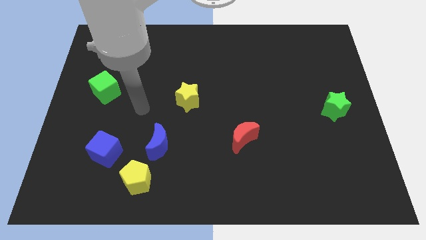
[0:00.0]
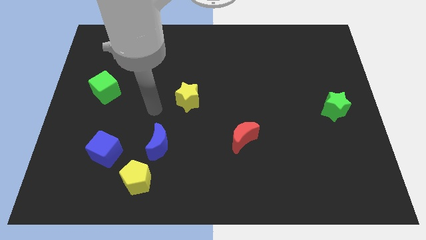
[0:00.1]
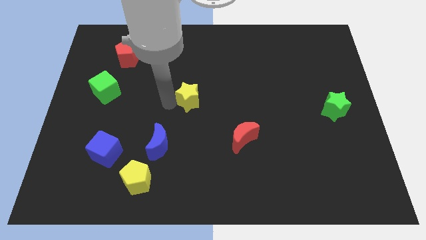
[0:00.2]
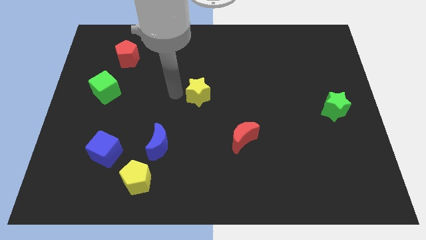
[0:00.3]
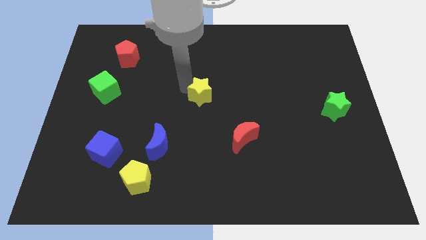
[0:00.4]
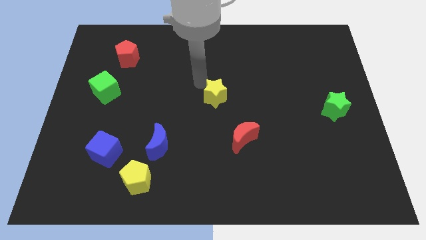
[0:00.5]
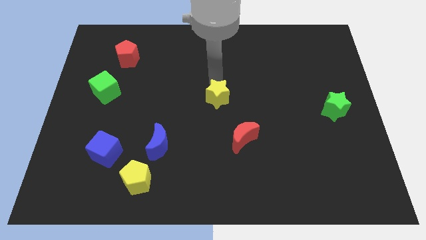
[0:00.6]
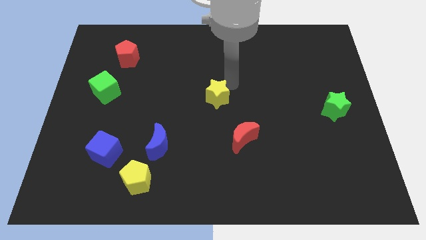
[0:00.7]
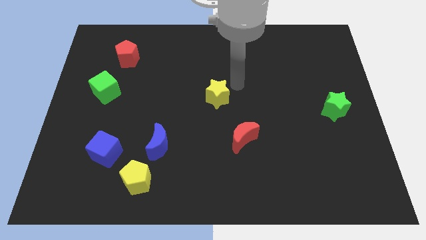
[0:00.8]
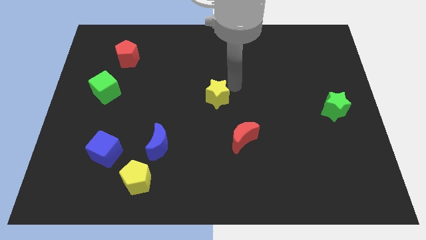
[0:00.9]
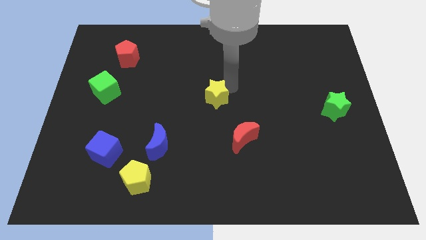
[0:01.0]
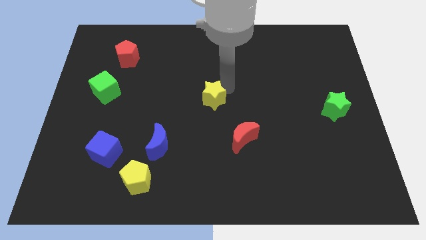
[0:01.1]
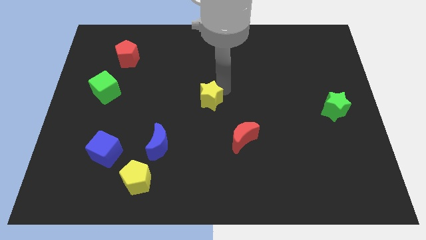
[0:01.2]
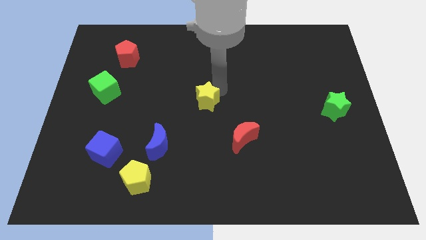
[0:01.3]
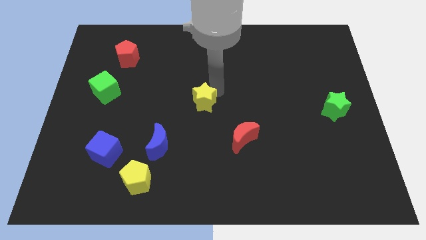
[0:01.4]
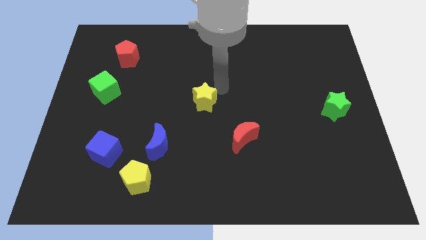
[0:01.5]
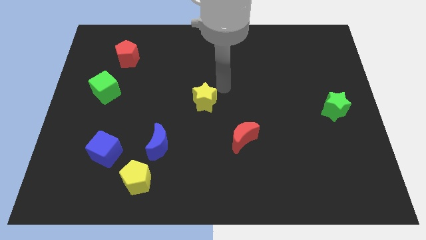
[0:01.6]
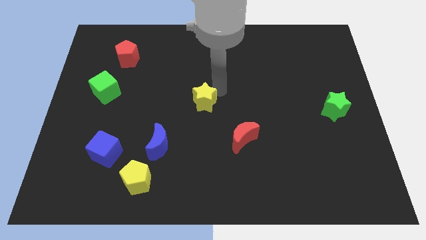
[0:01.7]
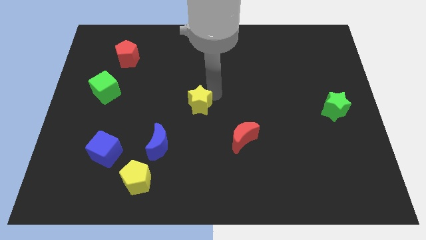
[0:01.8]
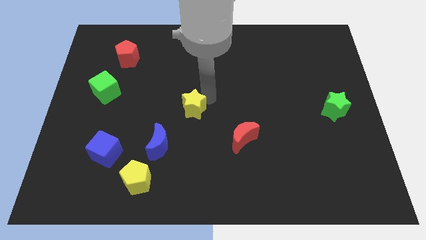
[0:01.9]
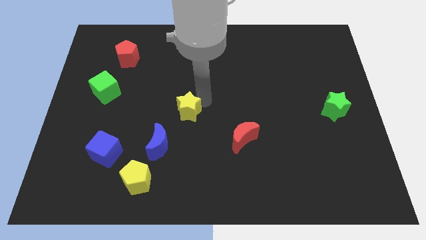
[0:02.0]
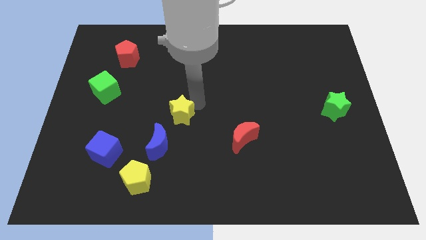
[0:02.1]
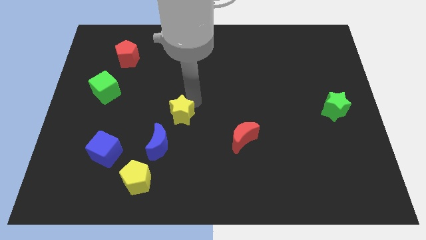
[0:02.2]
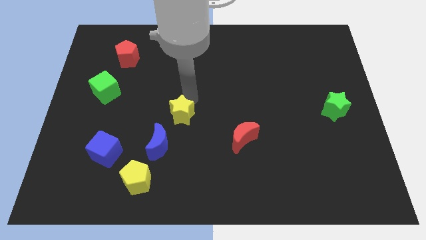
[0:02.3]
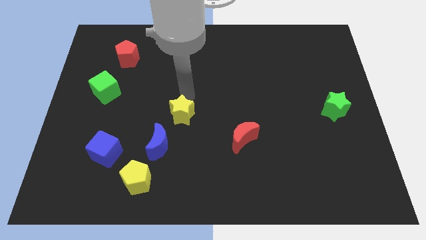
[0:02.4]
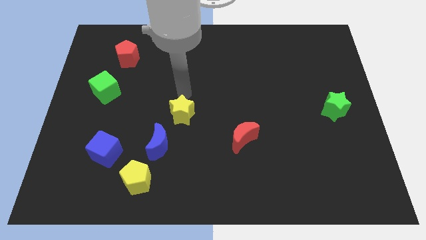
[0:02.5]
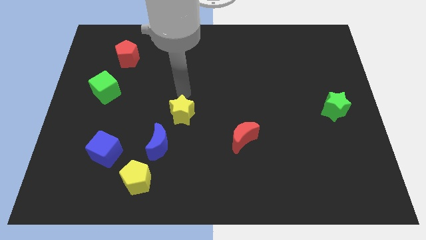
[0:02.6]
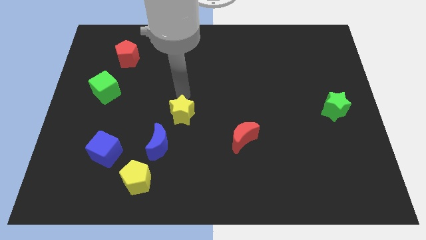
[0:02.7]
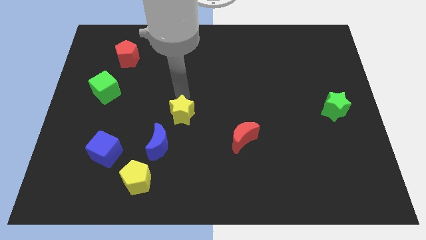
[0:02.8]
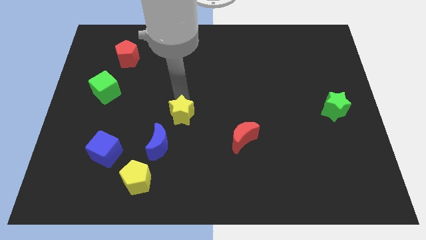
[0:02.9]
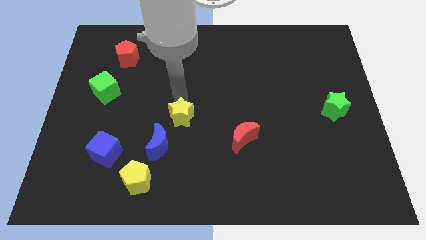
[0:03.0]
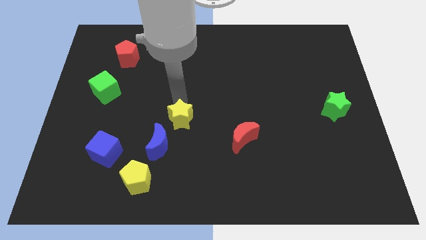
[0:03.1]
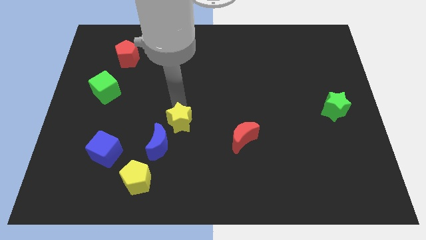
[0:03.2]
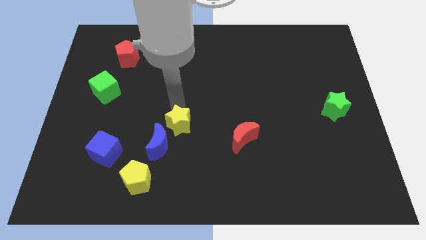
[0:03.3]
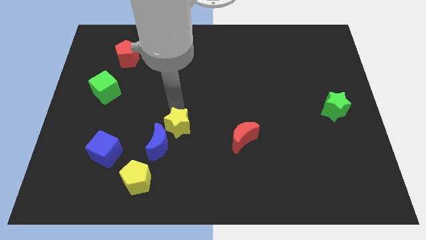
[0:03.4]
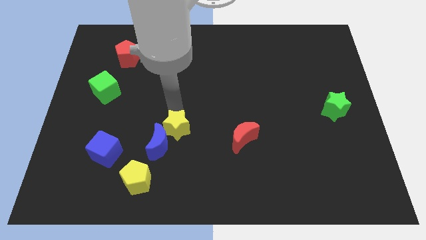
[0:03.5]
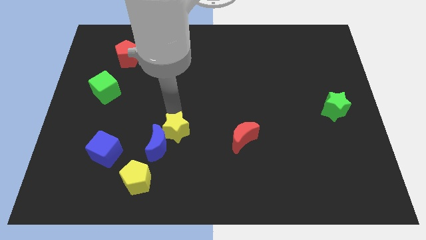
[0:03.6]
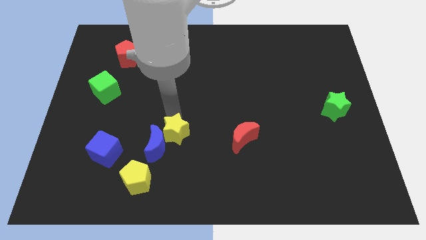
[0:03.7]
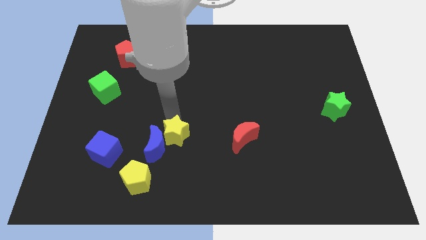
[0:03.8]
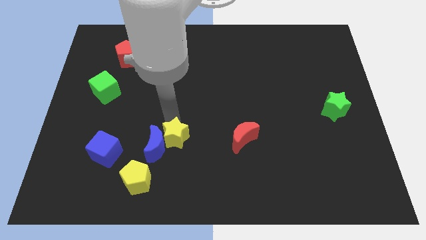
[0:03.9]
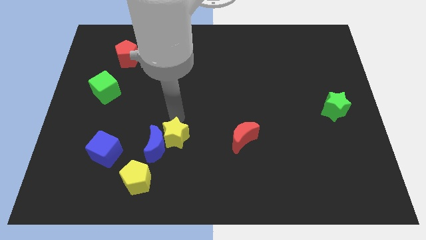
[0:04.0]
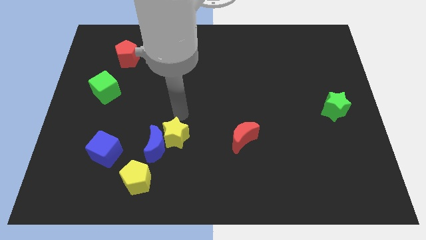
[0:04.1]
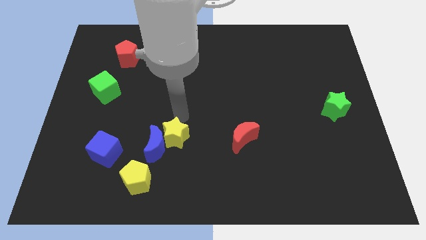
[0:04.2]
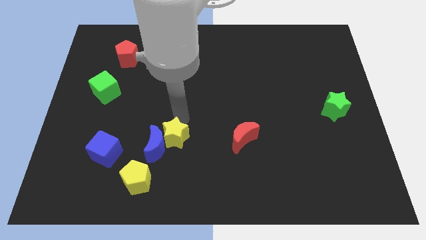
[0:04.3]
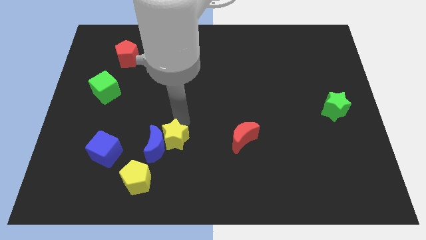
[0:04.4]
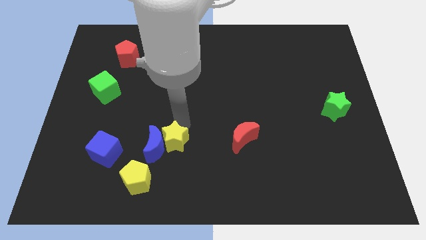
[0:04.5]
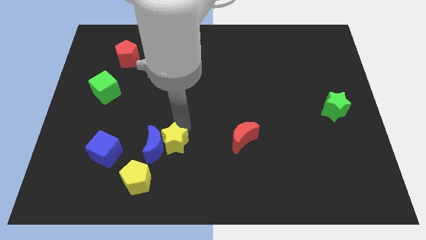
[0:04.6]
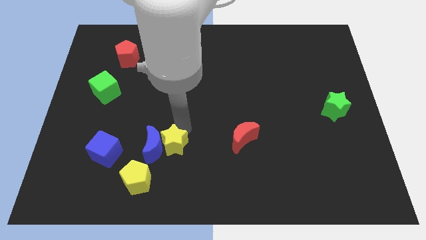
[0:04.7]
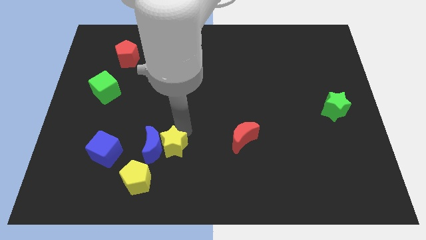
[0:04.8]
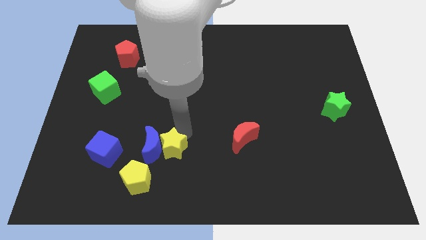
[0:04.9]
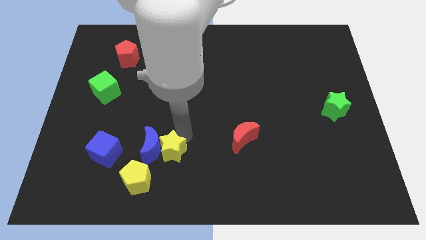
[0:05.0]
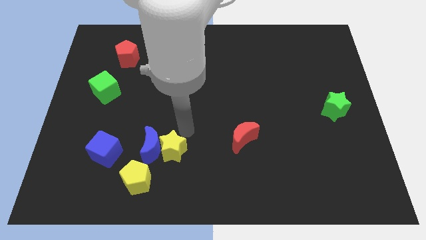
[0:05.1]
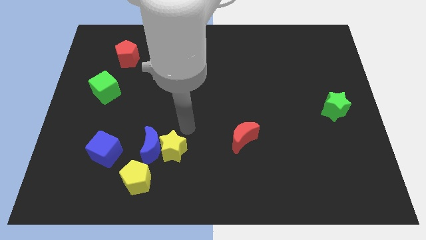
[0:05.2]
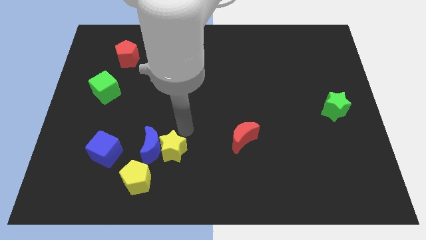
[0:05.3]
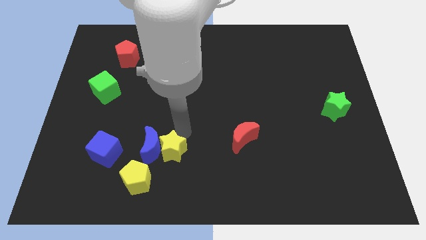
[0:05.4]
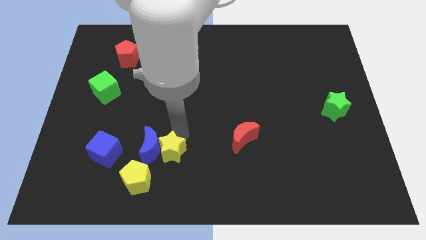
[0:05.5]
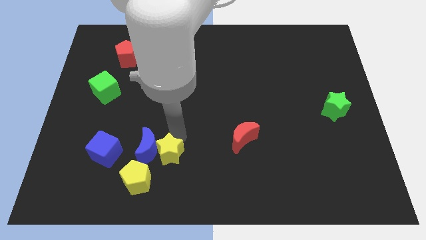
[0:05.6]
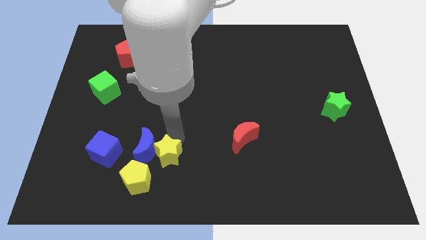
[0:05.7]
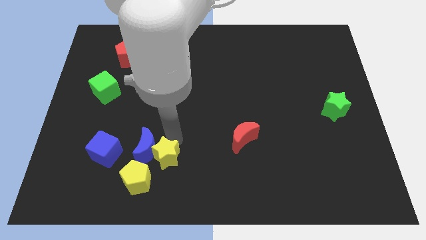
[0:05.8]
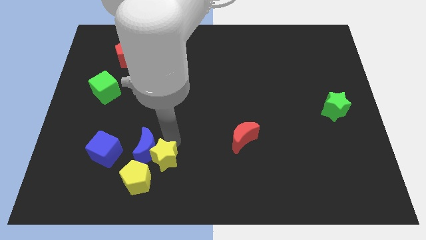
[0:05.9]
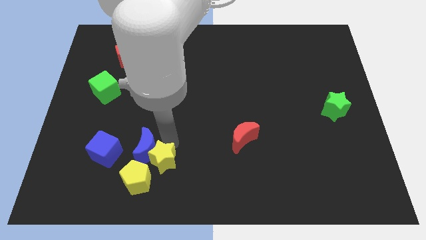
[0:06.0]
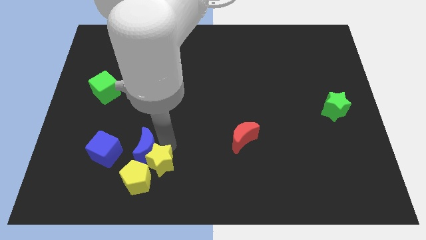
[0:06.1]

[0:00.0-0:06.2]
put the yellow star to the yellow pentagon

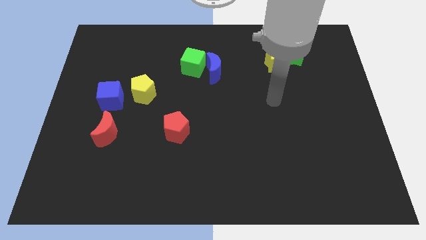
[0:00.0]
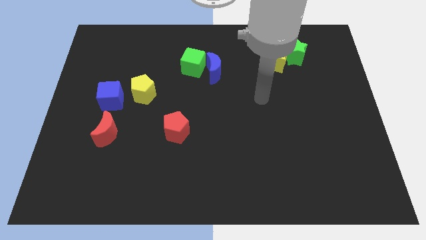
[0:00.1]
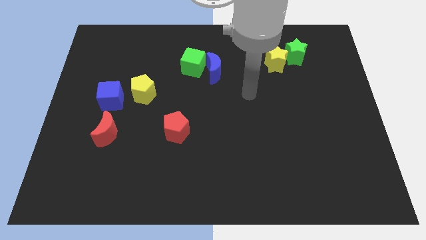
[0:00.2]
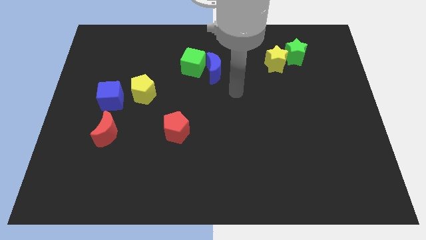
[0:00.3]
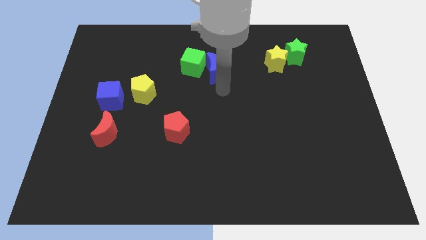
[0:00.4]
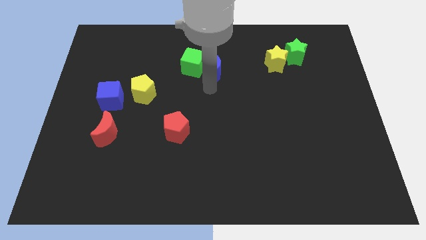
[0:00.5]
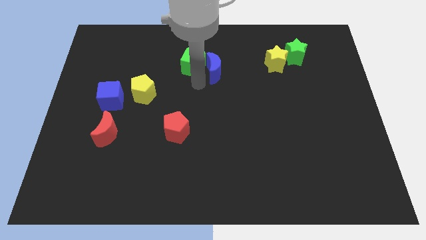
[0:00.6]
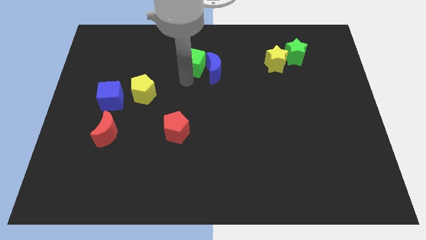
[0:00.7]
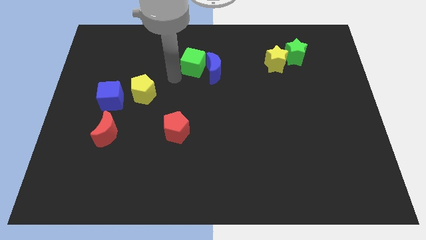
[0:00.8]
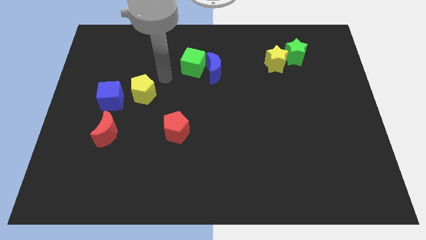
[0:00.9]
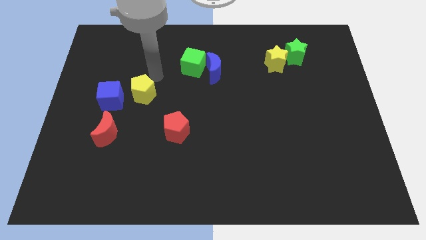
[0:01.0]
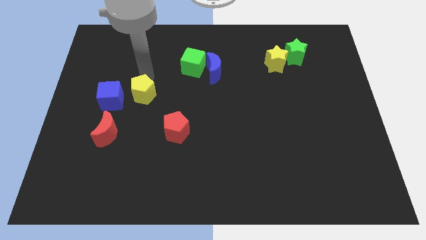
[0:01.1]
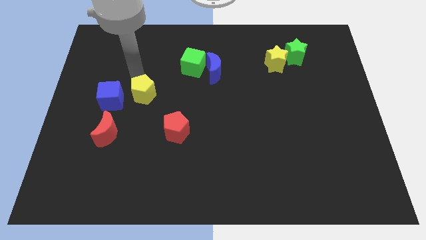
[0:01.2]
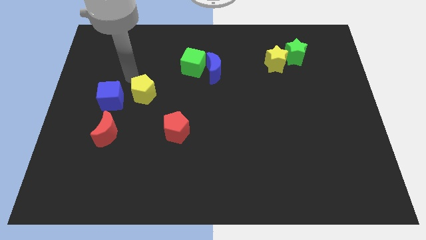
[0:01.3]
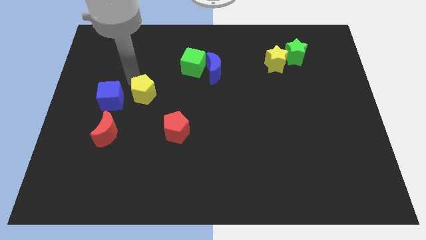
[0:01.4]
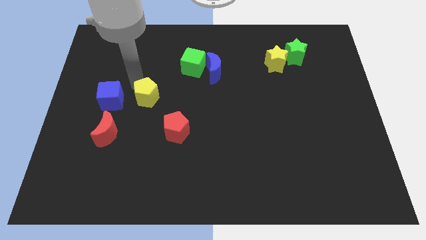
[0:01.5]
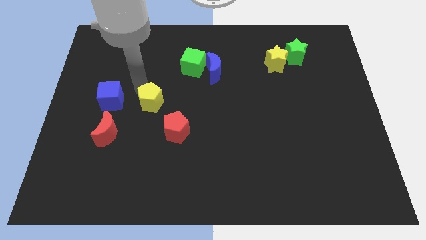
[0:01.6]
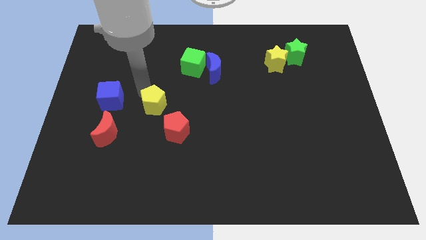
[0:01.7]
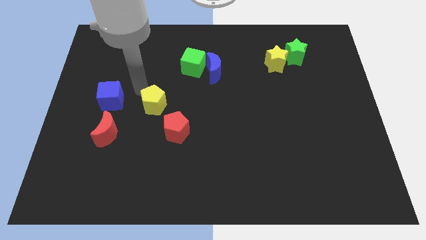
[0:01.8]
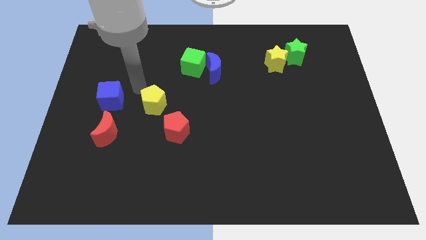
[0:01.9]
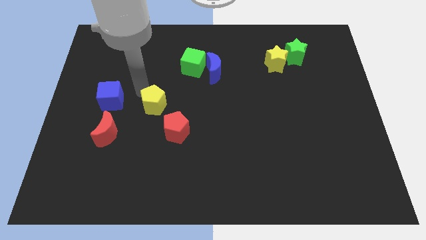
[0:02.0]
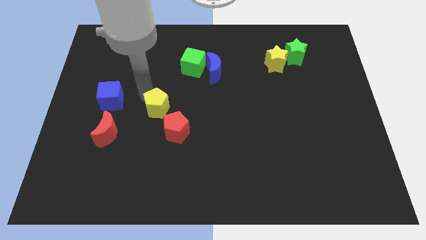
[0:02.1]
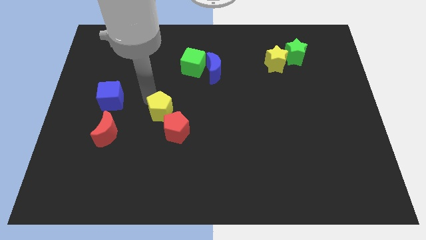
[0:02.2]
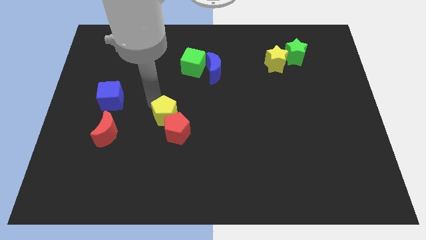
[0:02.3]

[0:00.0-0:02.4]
put the yellow pentagon towards the red pentagon
